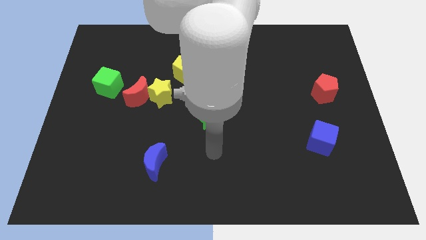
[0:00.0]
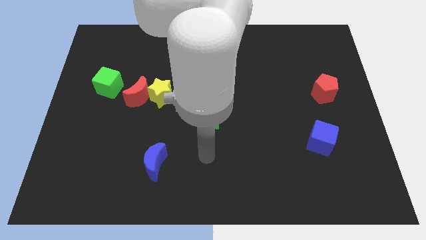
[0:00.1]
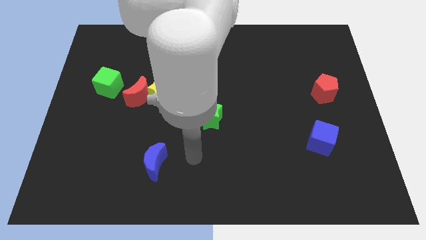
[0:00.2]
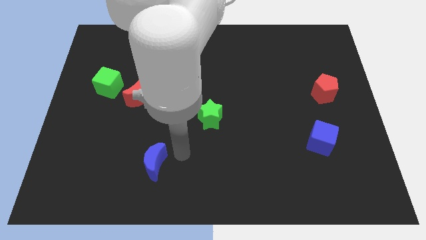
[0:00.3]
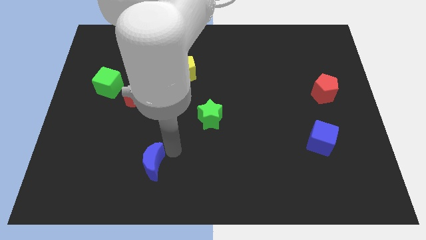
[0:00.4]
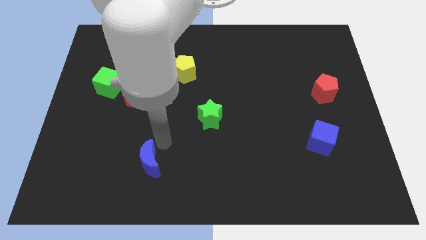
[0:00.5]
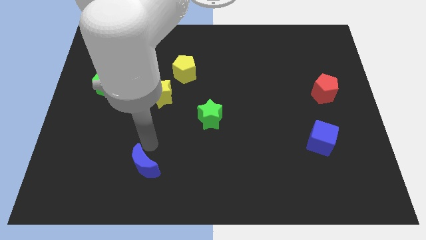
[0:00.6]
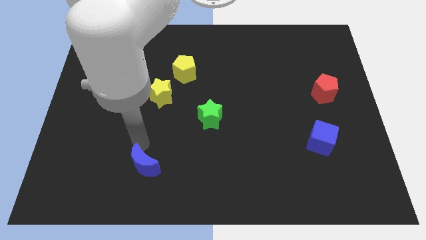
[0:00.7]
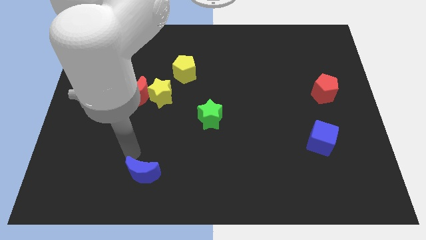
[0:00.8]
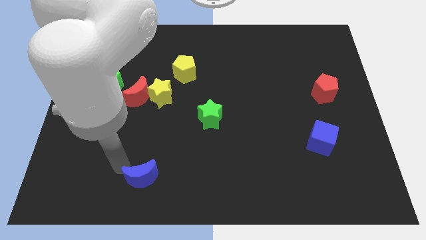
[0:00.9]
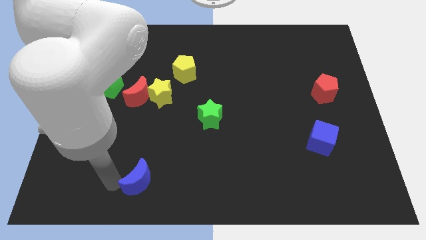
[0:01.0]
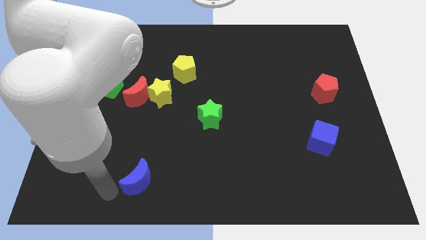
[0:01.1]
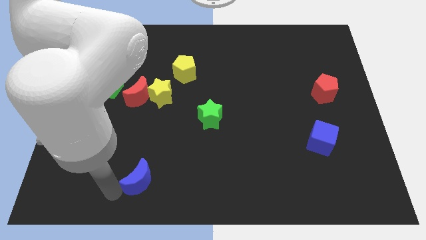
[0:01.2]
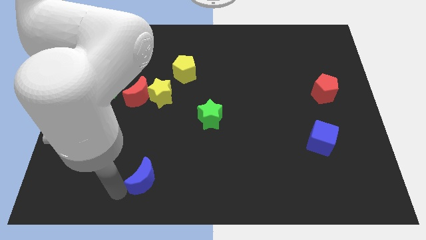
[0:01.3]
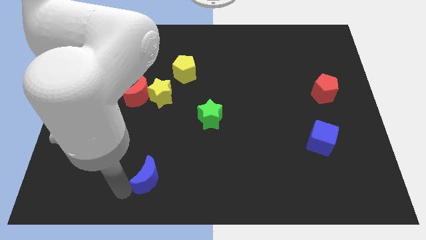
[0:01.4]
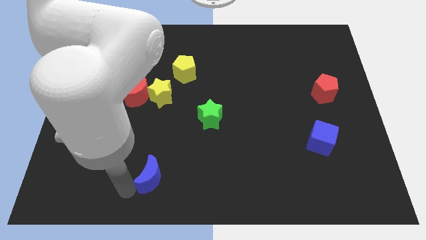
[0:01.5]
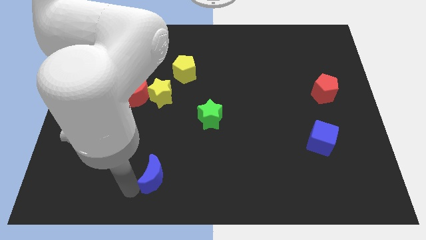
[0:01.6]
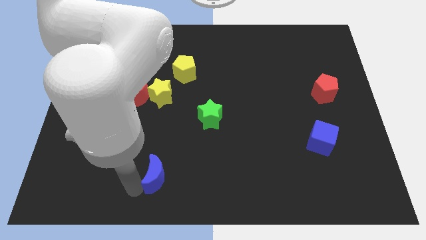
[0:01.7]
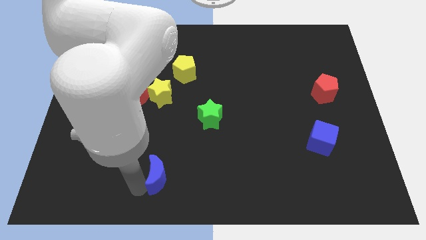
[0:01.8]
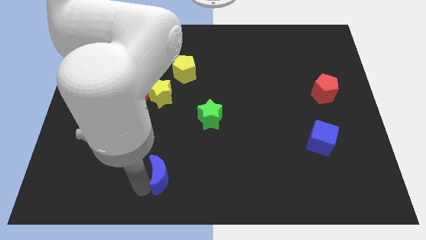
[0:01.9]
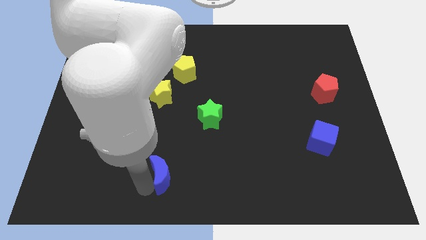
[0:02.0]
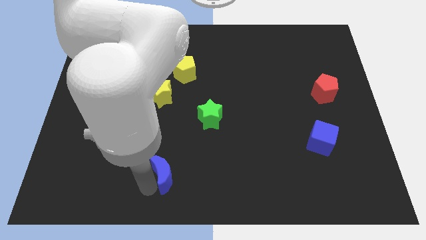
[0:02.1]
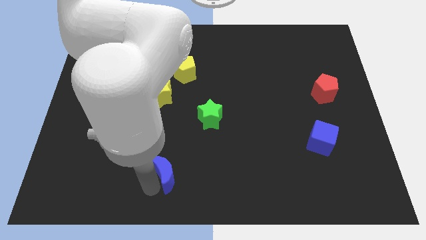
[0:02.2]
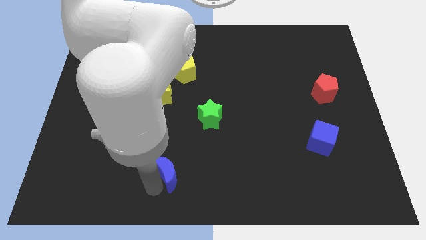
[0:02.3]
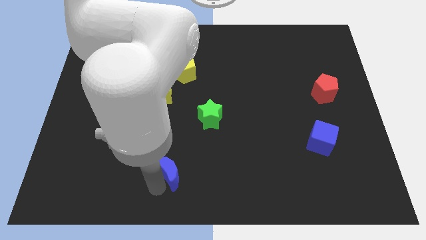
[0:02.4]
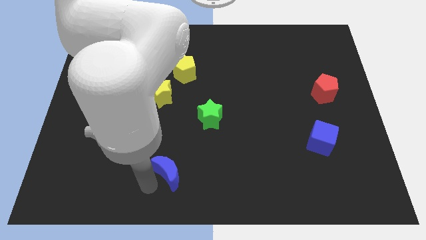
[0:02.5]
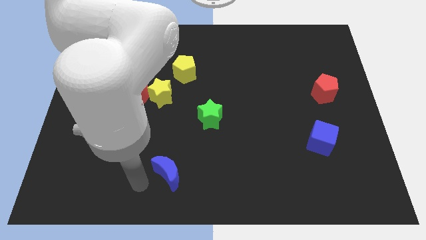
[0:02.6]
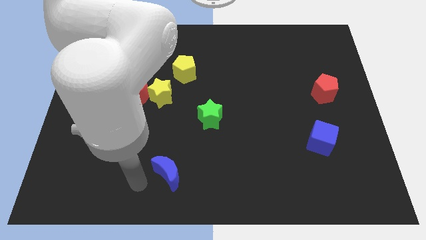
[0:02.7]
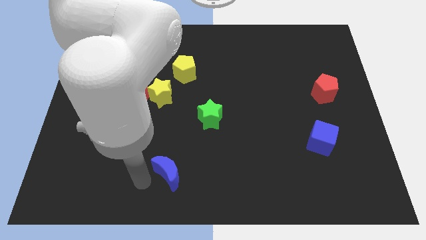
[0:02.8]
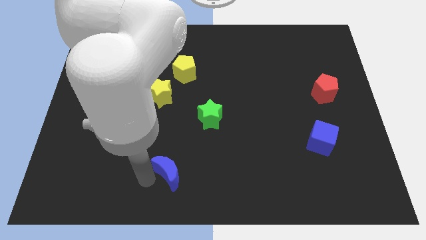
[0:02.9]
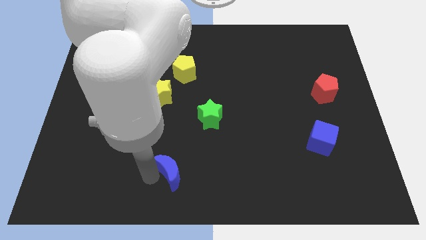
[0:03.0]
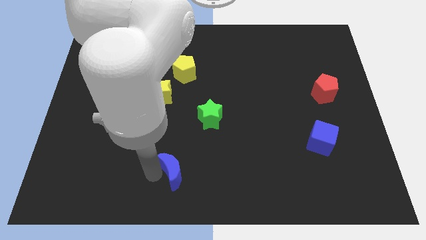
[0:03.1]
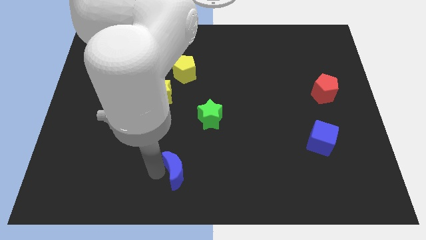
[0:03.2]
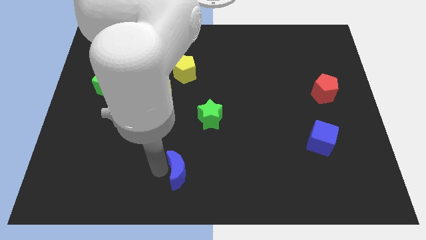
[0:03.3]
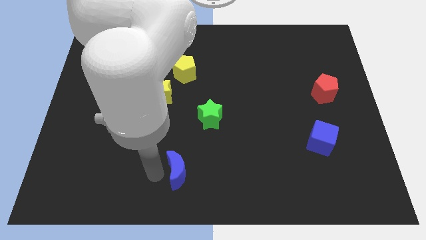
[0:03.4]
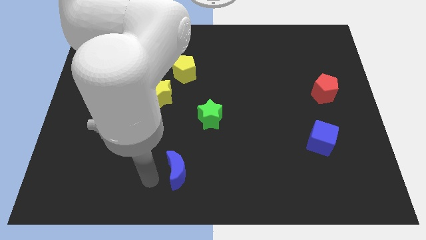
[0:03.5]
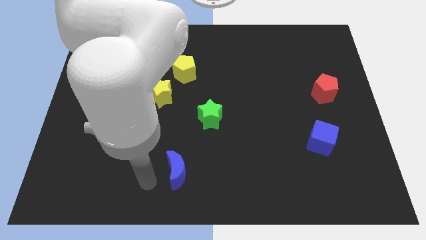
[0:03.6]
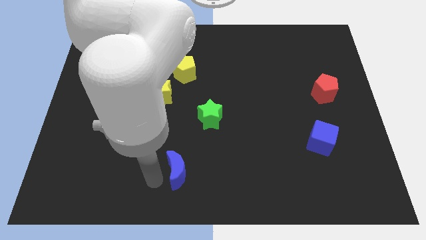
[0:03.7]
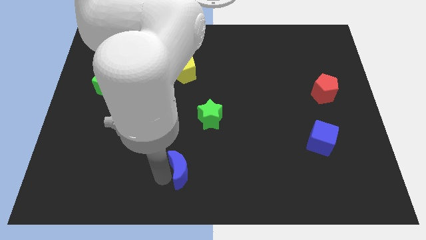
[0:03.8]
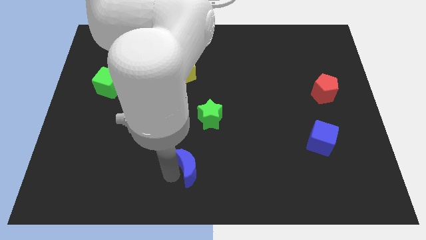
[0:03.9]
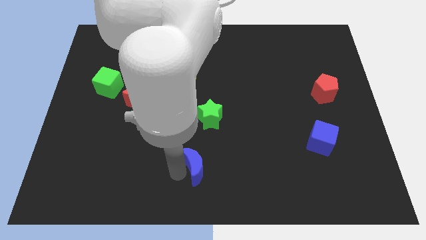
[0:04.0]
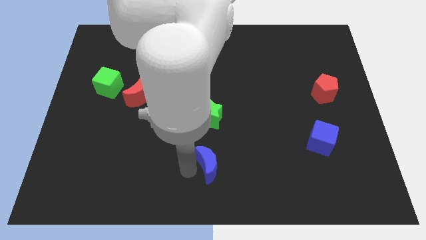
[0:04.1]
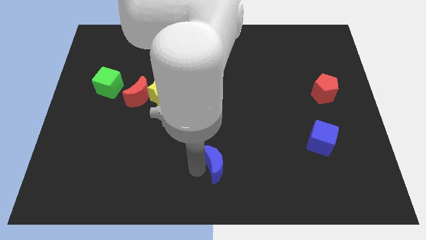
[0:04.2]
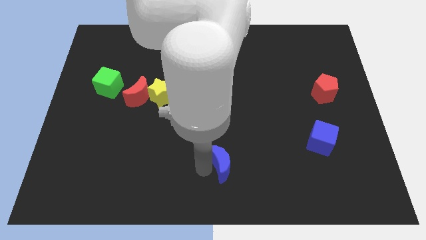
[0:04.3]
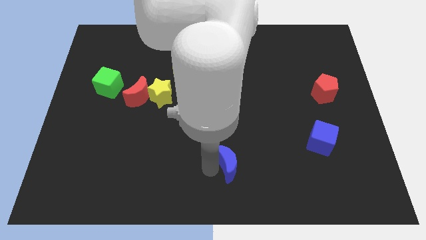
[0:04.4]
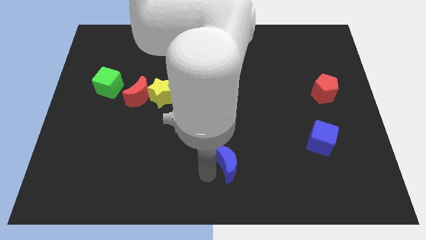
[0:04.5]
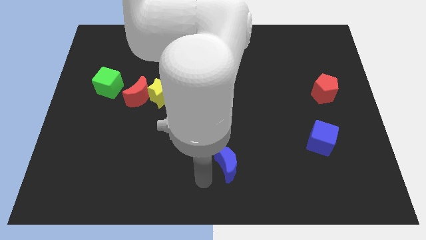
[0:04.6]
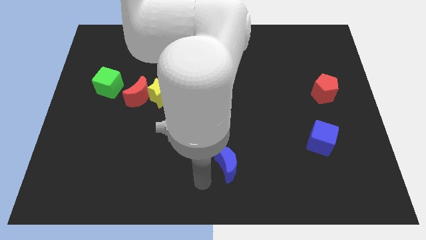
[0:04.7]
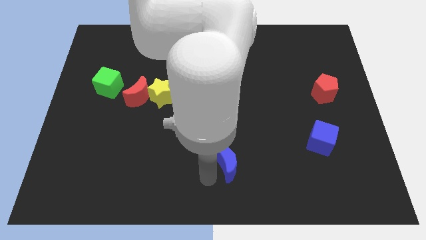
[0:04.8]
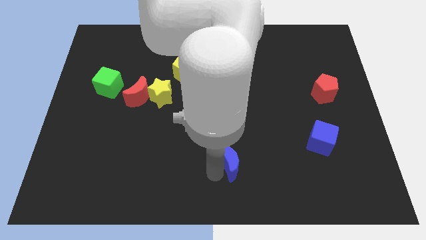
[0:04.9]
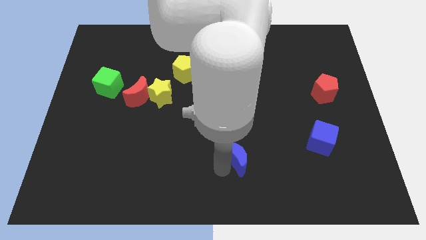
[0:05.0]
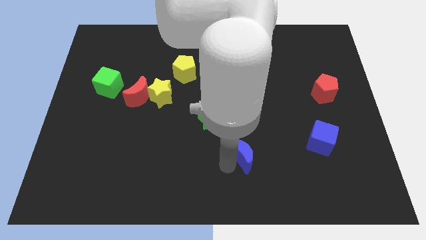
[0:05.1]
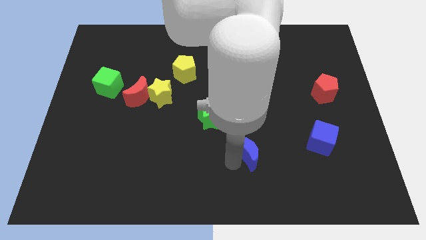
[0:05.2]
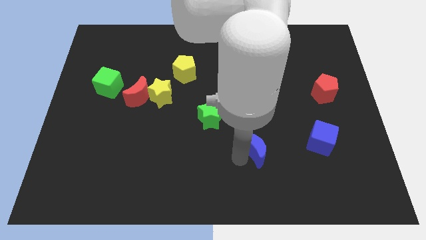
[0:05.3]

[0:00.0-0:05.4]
push the blue moon left of the blue cube

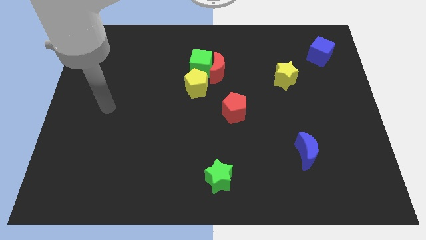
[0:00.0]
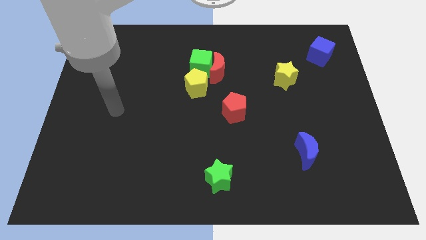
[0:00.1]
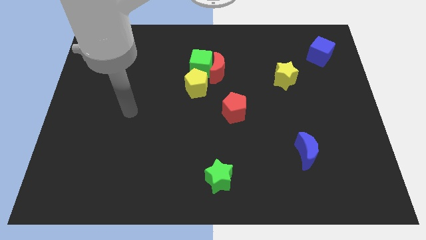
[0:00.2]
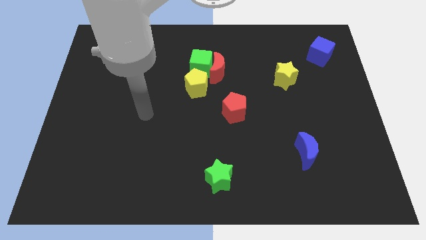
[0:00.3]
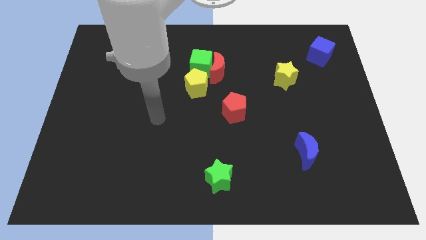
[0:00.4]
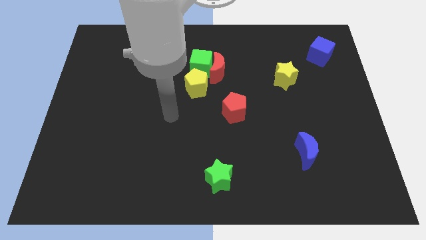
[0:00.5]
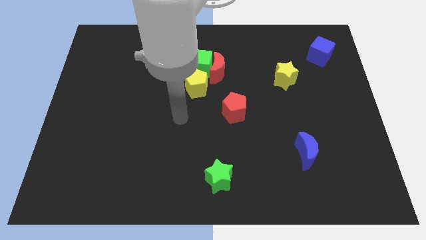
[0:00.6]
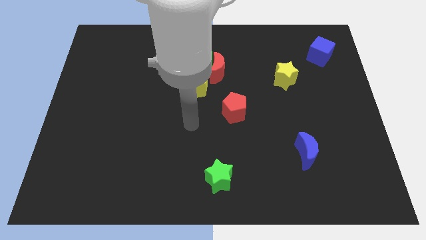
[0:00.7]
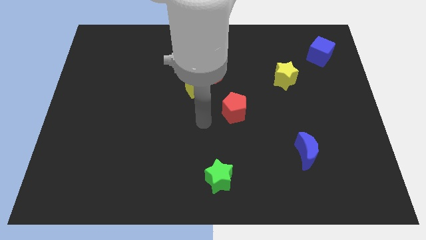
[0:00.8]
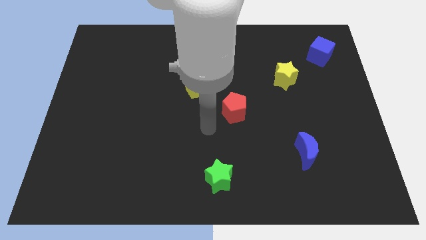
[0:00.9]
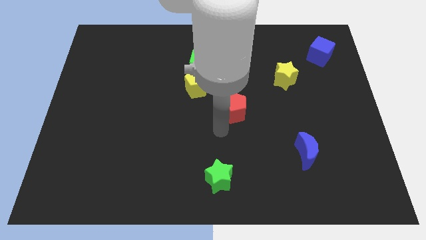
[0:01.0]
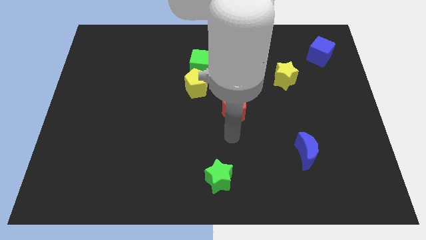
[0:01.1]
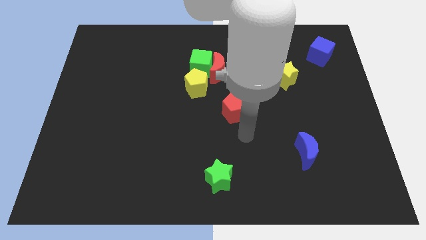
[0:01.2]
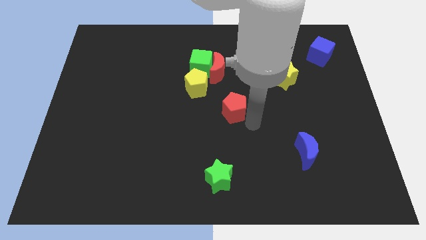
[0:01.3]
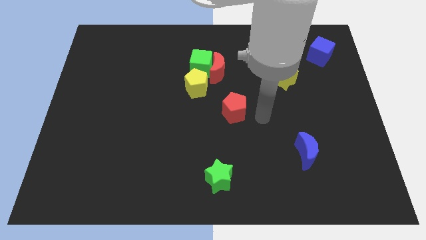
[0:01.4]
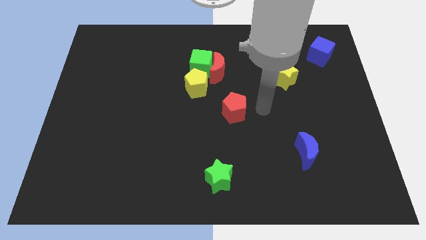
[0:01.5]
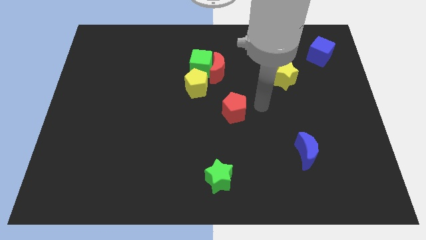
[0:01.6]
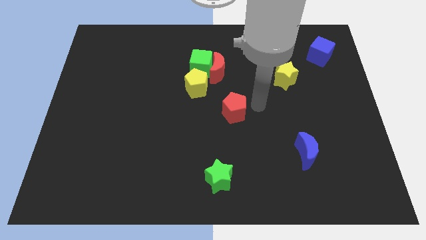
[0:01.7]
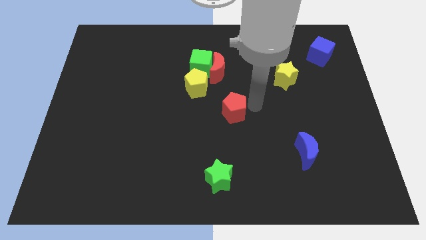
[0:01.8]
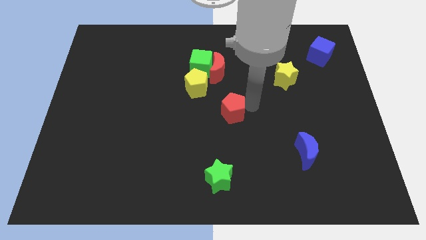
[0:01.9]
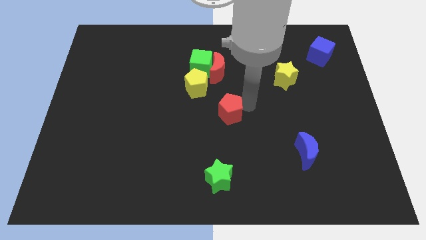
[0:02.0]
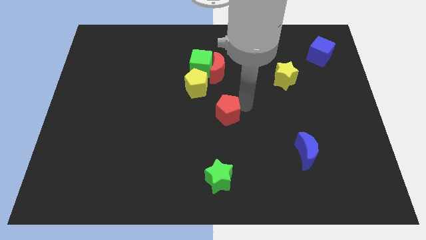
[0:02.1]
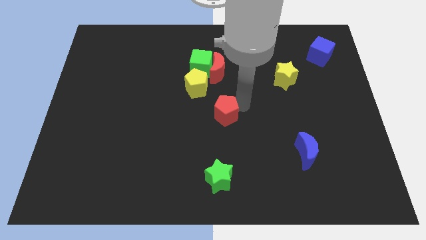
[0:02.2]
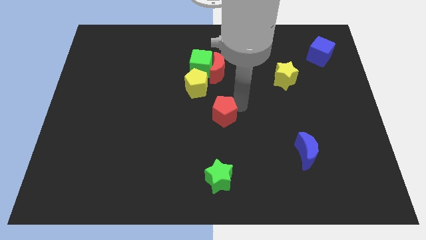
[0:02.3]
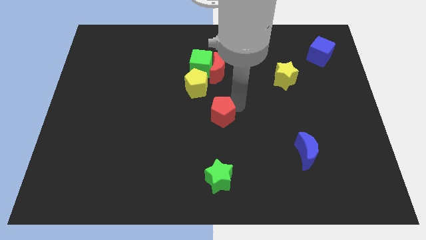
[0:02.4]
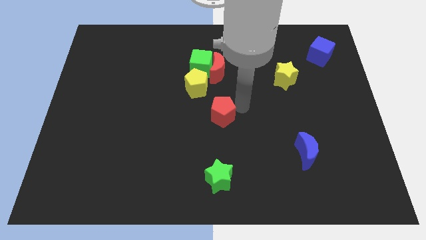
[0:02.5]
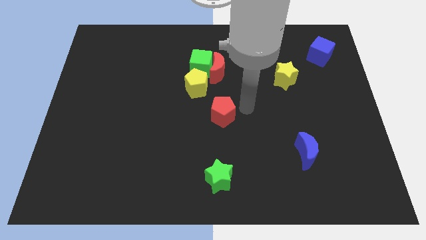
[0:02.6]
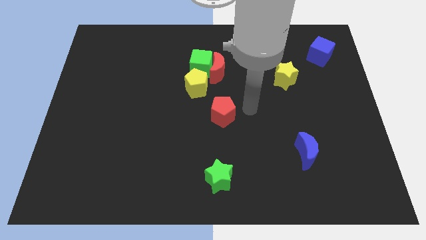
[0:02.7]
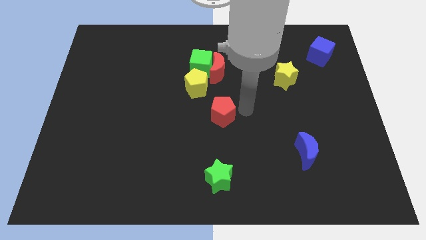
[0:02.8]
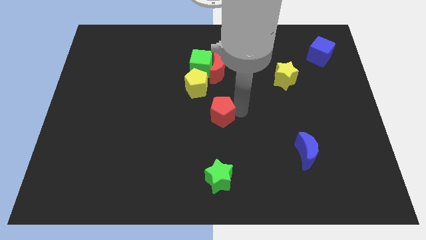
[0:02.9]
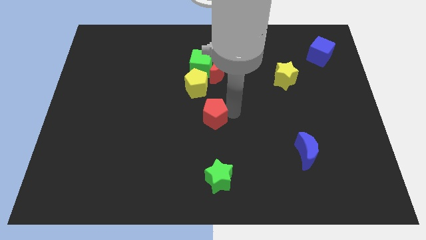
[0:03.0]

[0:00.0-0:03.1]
push the red pentagon below the yellow pentagon
